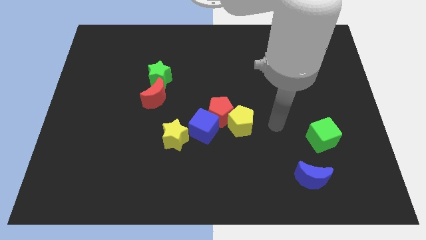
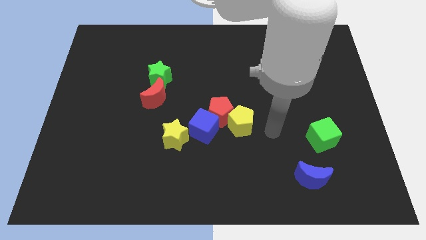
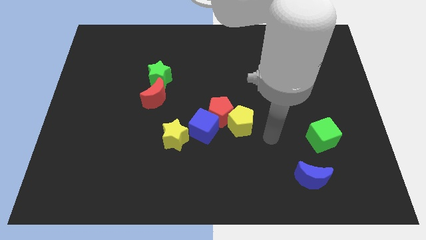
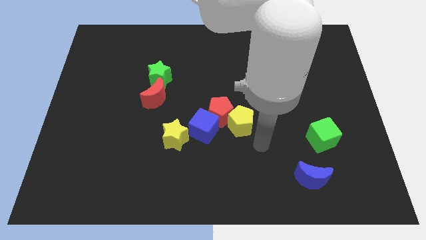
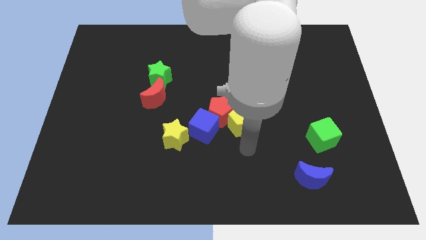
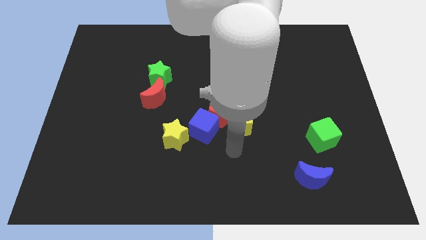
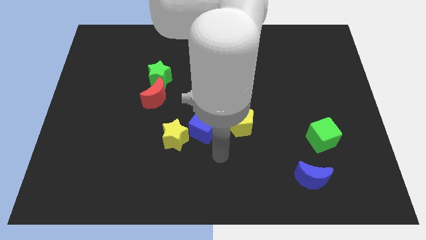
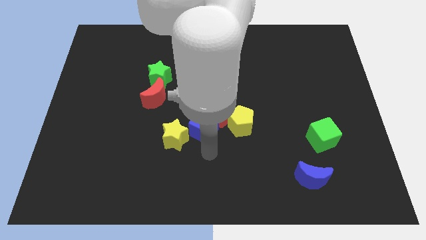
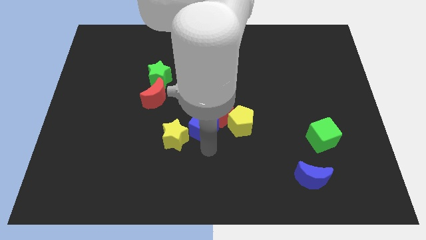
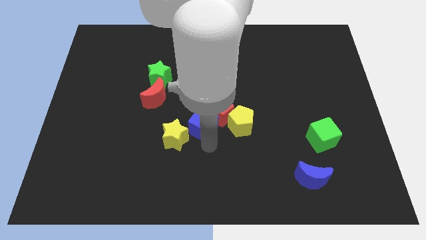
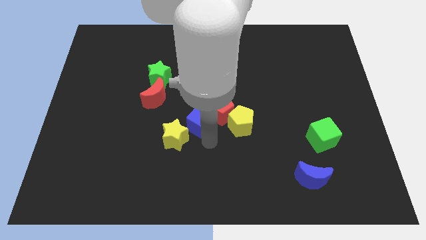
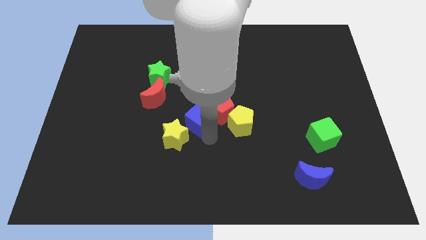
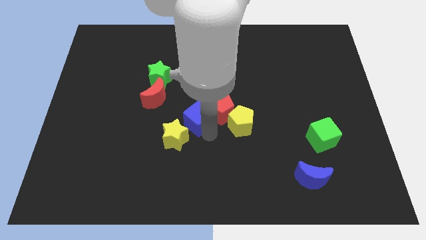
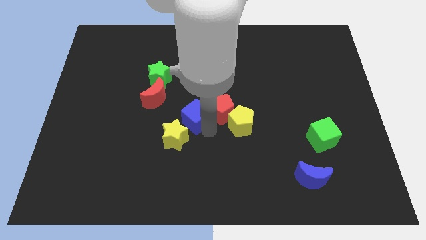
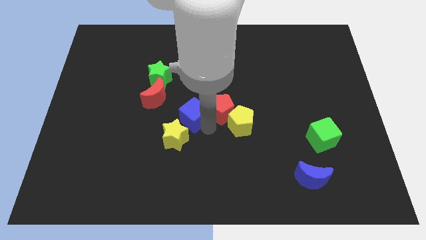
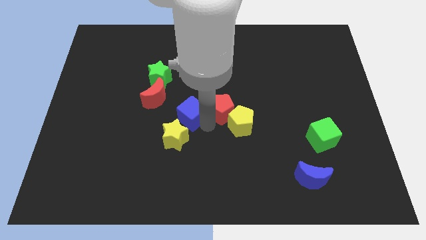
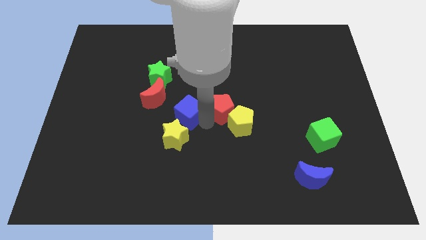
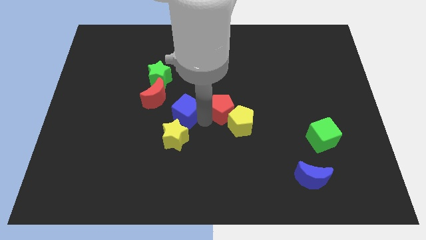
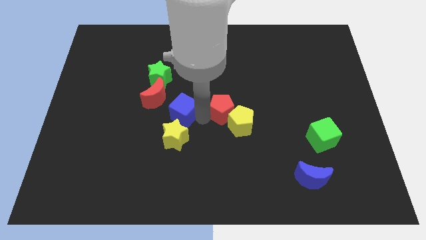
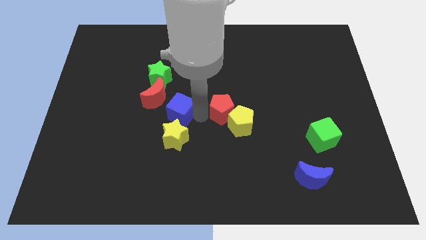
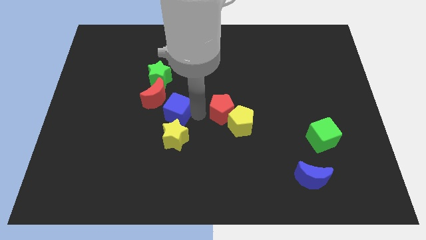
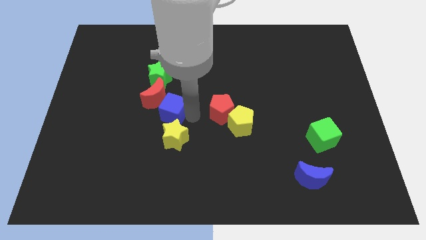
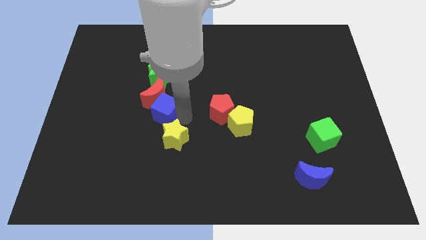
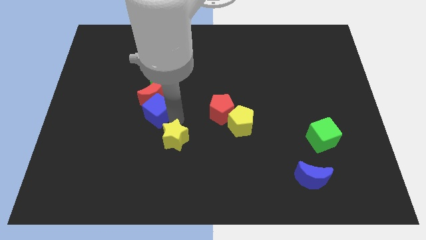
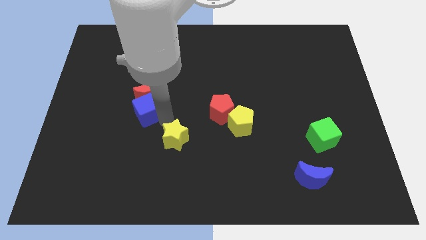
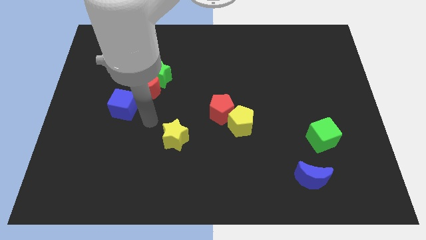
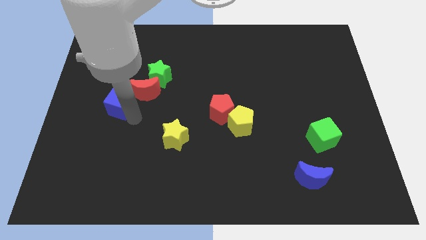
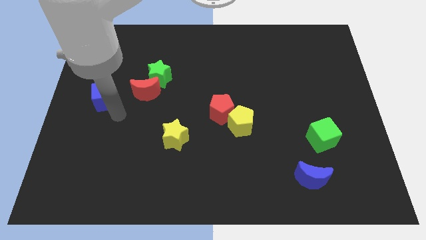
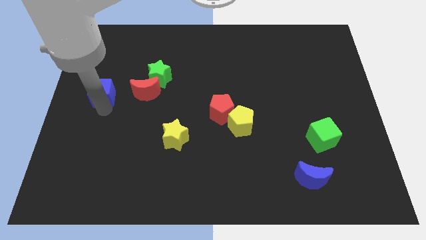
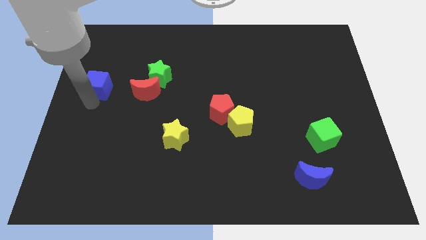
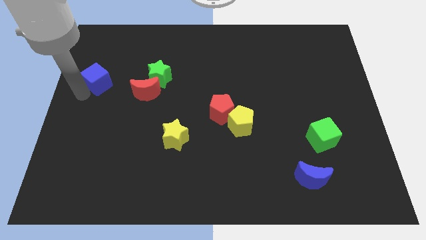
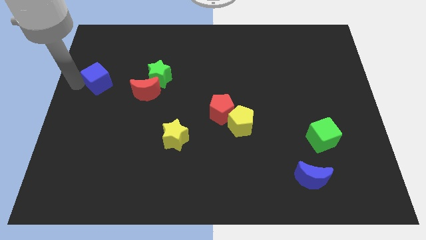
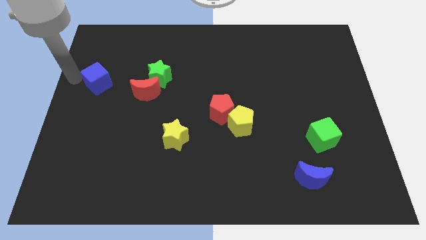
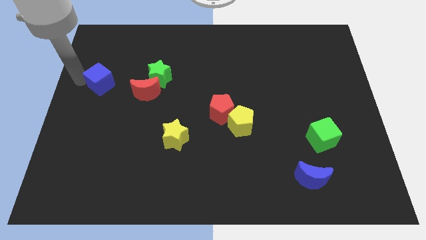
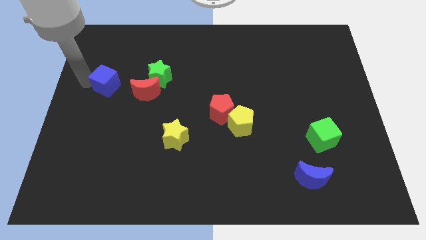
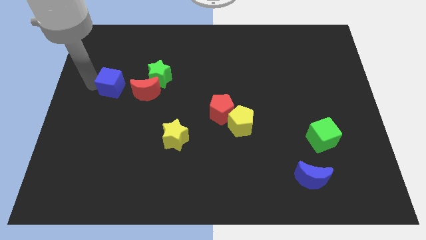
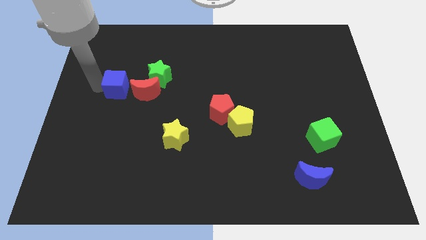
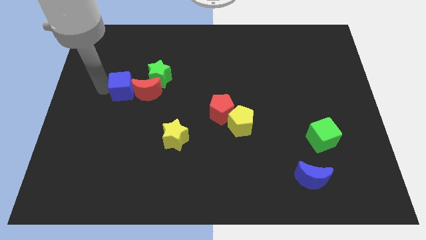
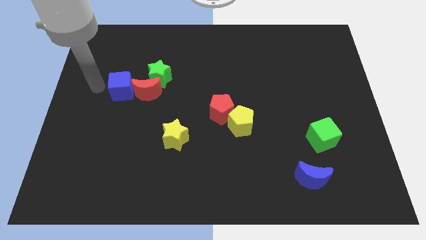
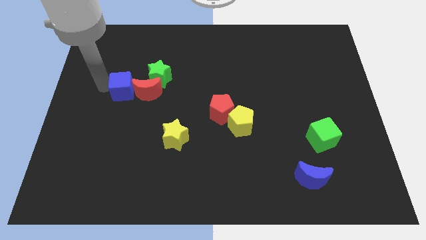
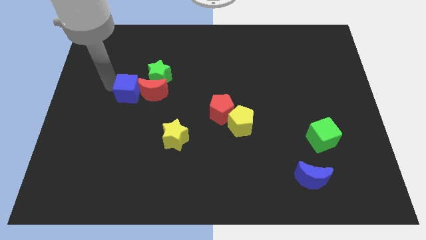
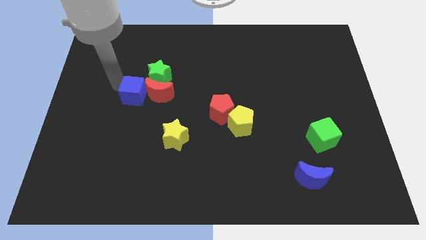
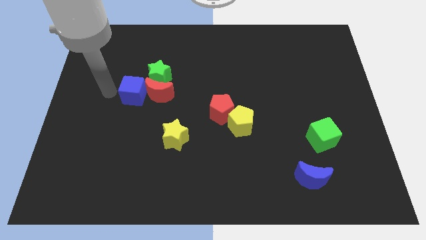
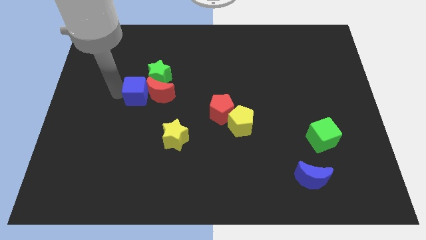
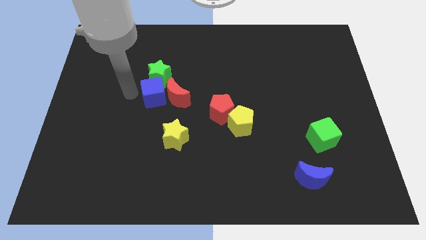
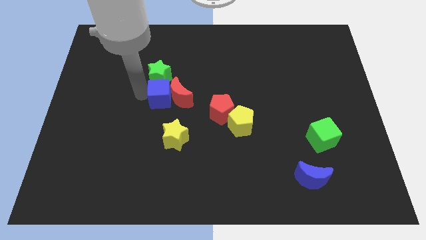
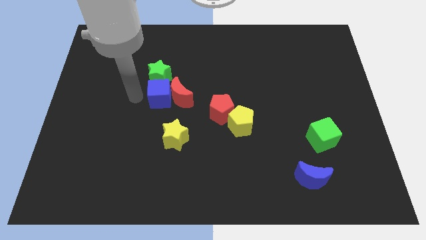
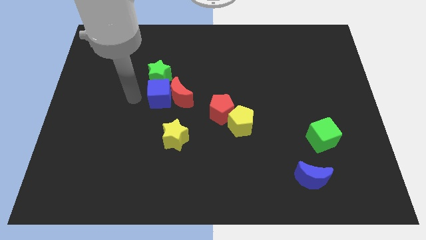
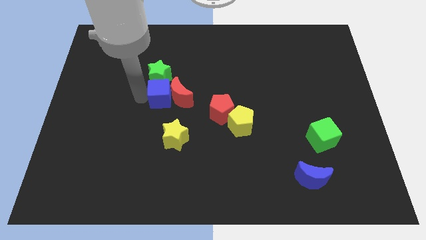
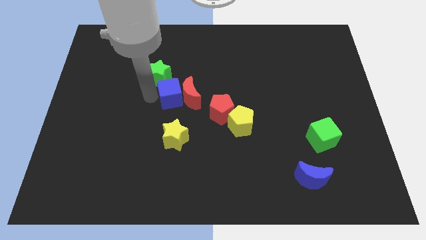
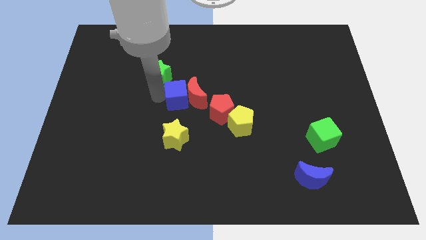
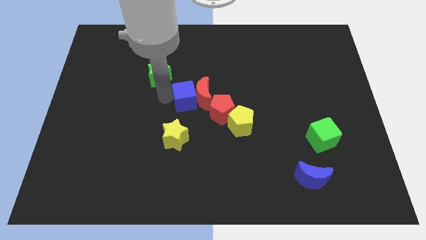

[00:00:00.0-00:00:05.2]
push the blue cube diagonally up and to the left of the red pentagon

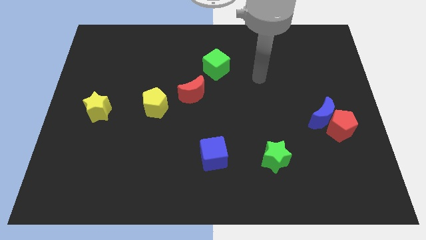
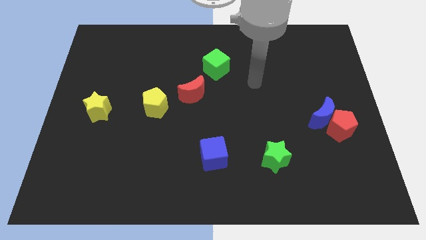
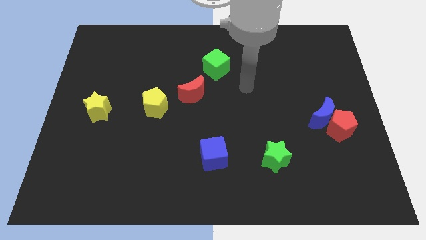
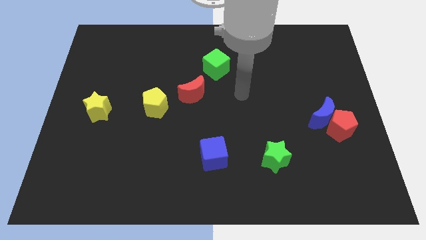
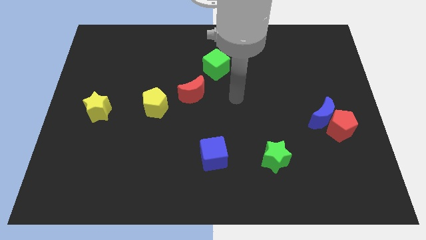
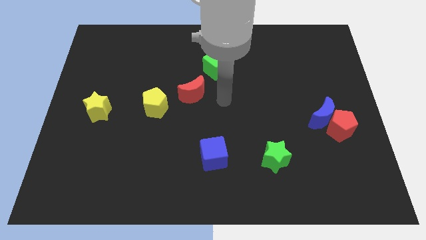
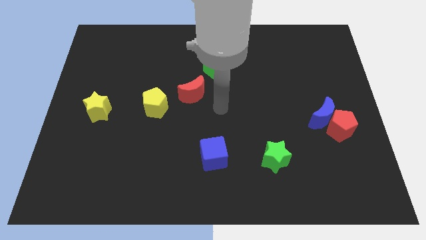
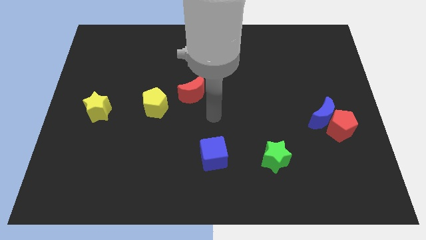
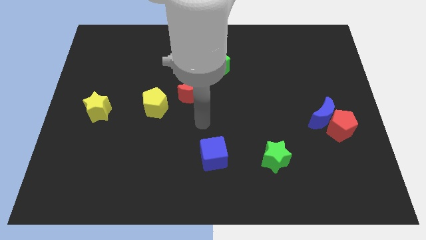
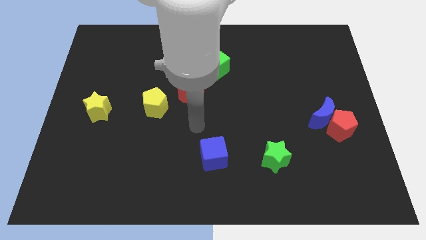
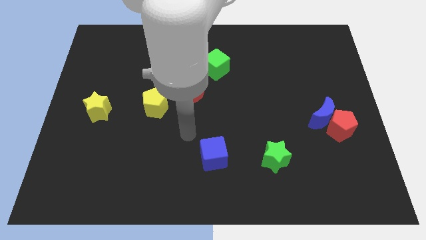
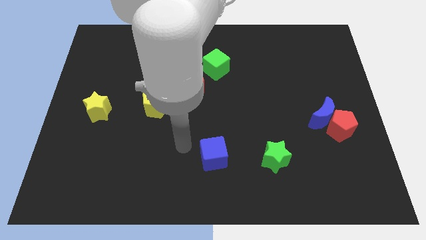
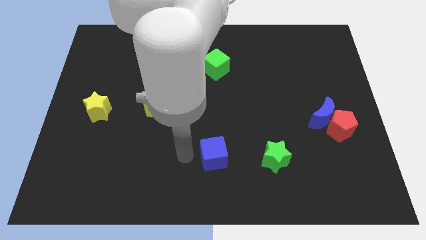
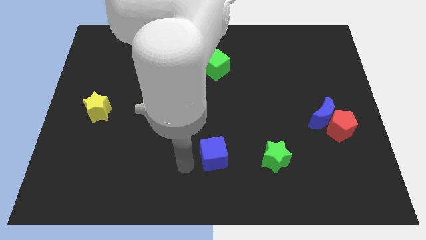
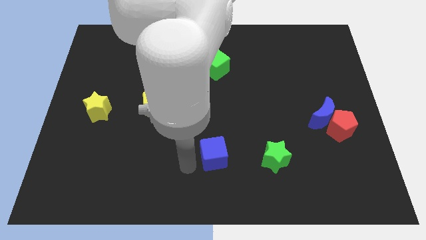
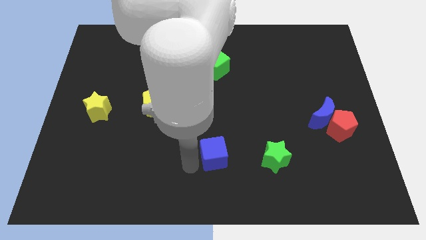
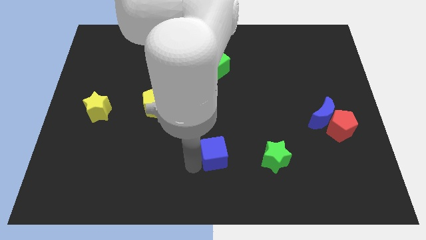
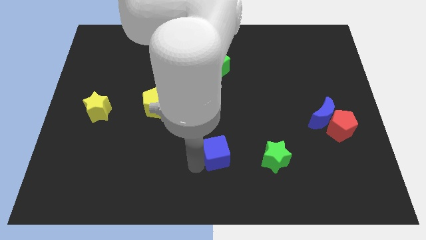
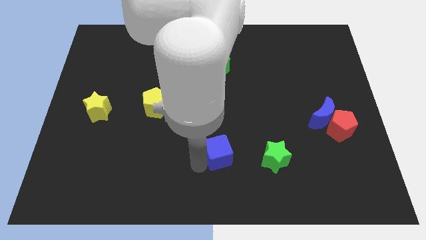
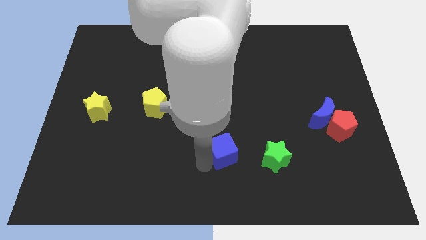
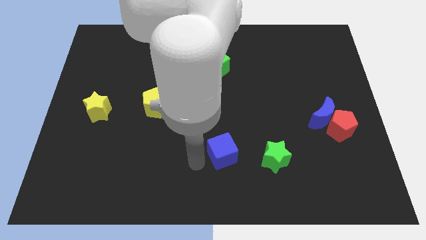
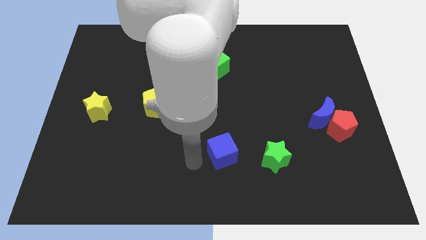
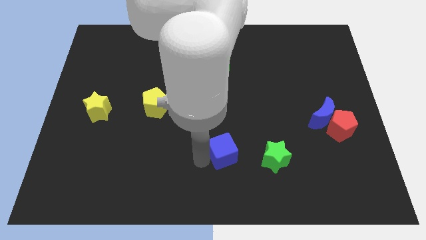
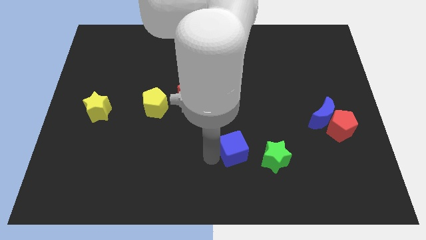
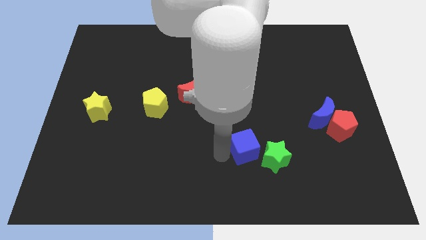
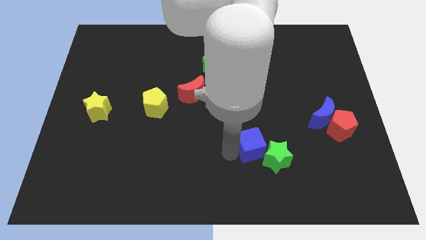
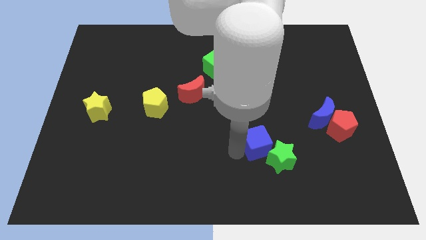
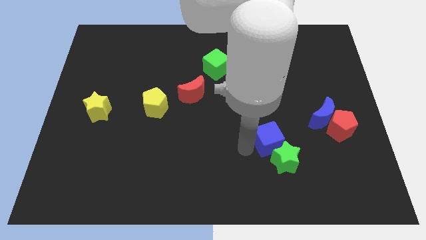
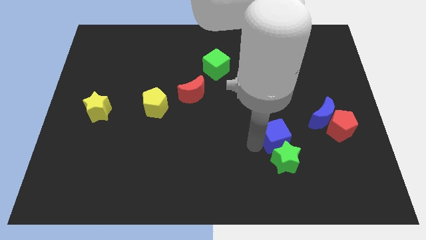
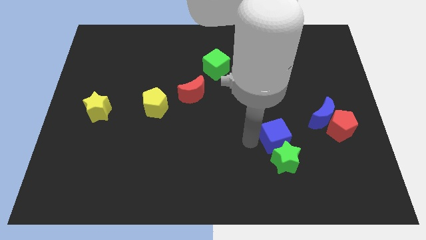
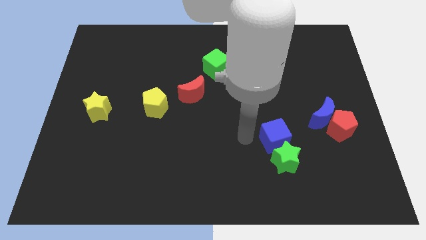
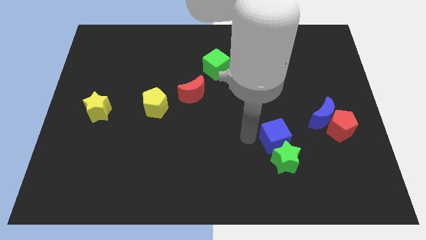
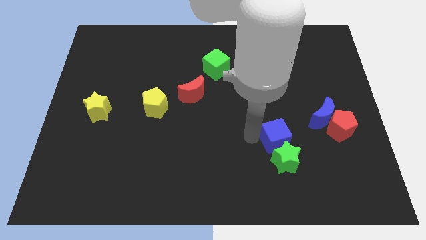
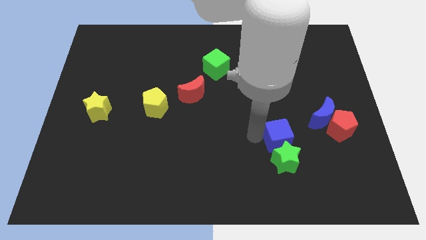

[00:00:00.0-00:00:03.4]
slide the blue cube to the top right of the green star
